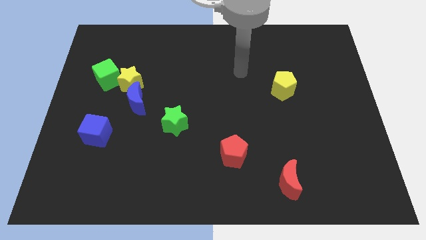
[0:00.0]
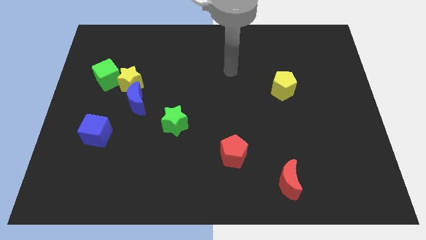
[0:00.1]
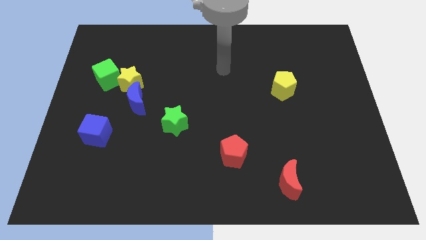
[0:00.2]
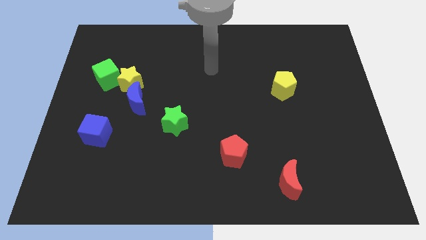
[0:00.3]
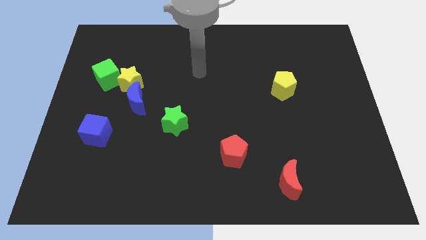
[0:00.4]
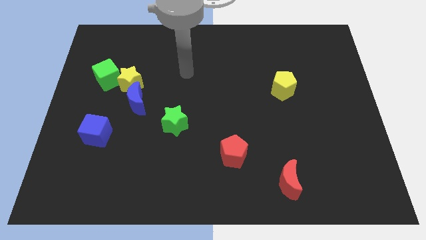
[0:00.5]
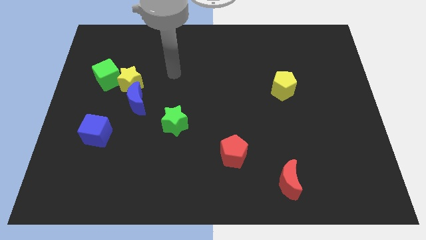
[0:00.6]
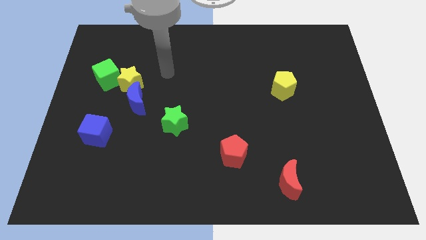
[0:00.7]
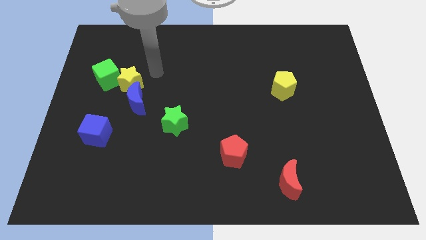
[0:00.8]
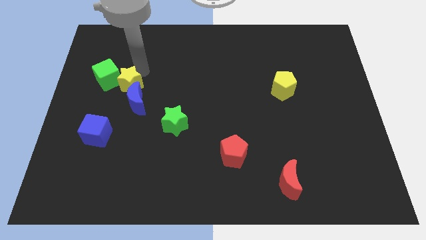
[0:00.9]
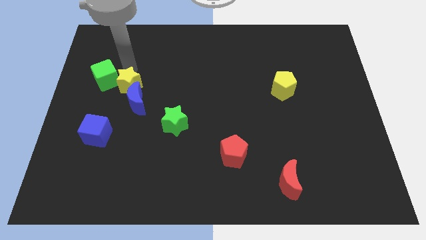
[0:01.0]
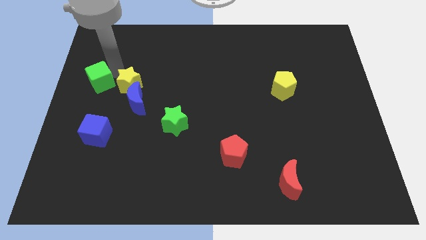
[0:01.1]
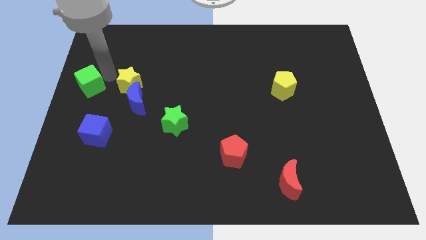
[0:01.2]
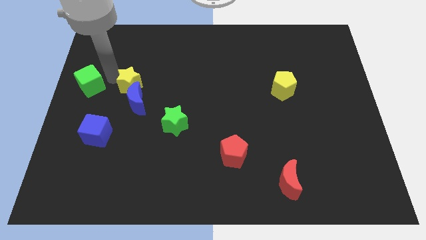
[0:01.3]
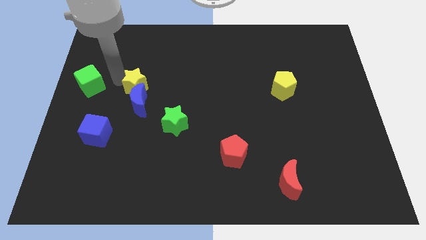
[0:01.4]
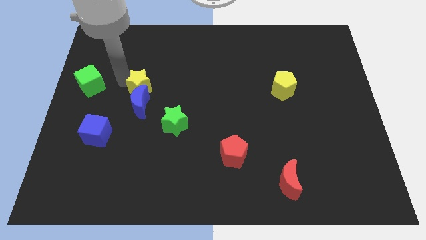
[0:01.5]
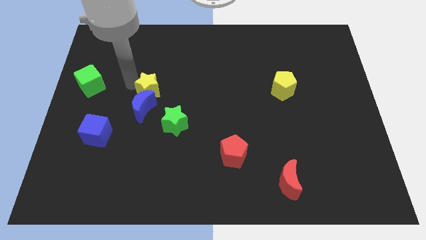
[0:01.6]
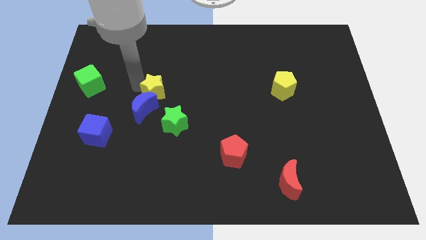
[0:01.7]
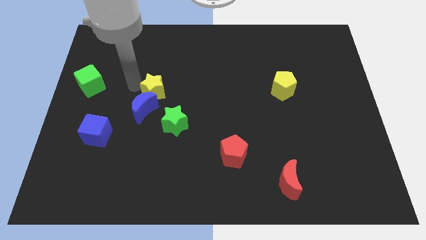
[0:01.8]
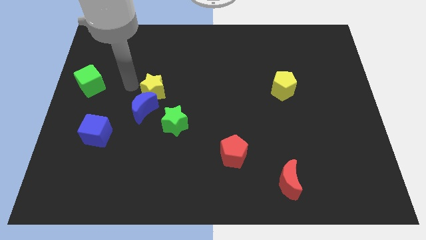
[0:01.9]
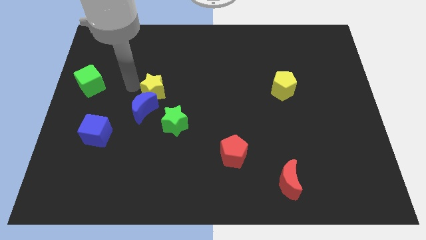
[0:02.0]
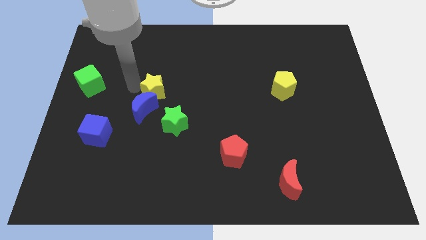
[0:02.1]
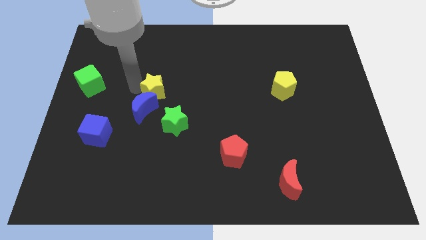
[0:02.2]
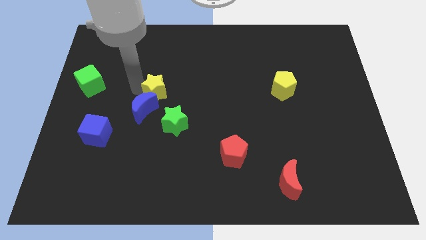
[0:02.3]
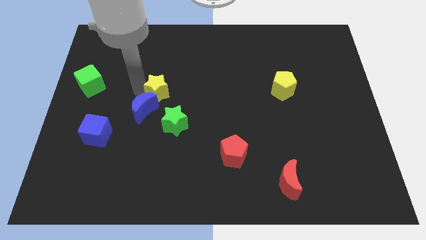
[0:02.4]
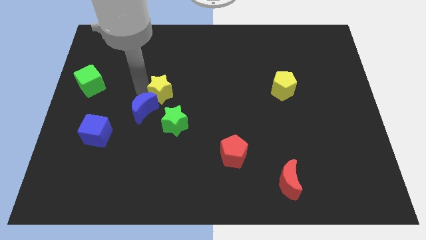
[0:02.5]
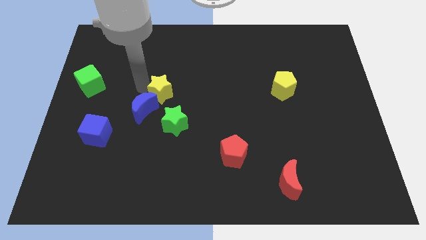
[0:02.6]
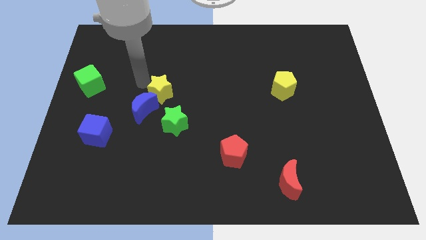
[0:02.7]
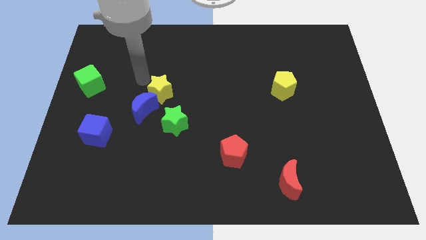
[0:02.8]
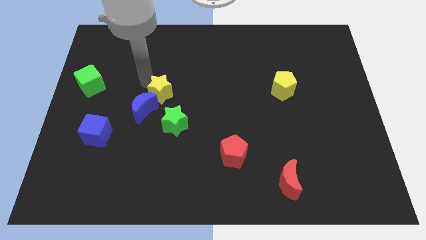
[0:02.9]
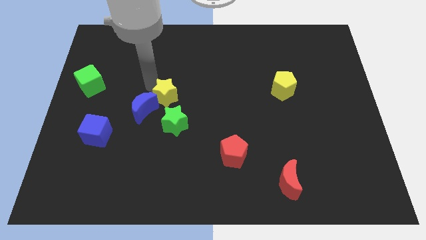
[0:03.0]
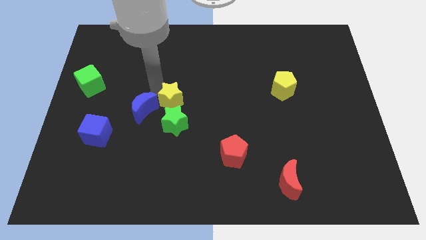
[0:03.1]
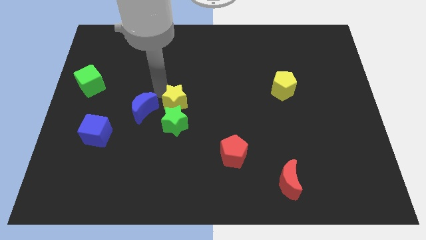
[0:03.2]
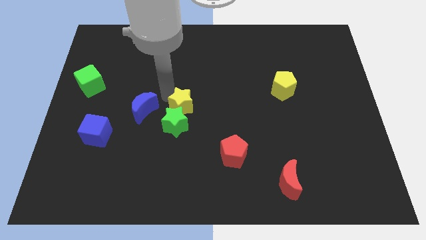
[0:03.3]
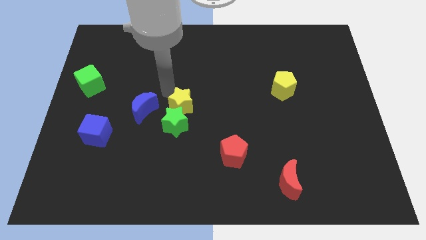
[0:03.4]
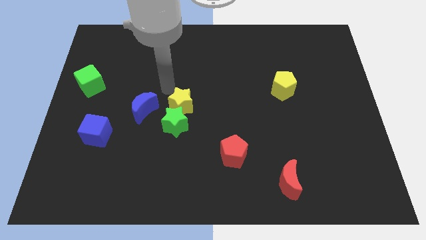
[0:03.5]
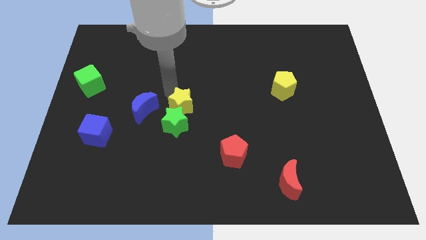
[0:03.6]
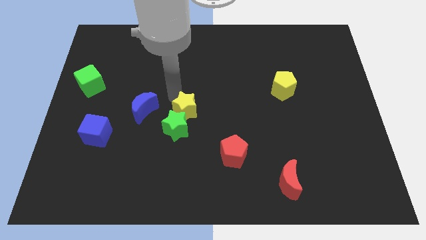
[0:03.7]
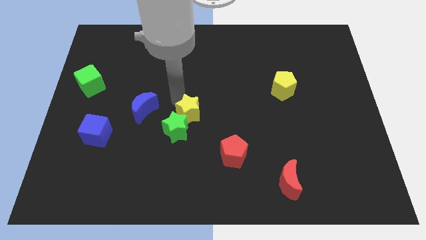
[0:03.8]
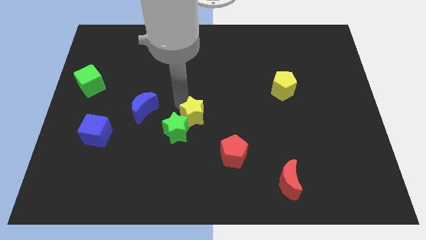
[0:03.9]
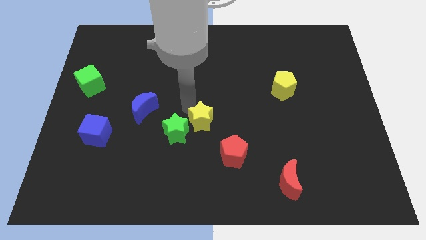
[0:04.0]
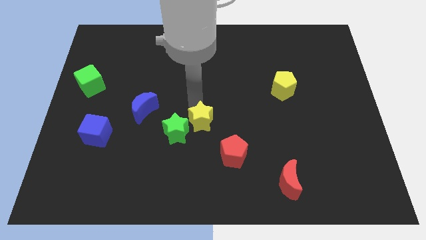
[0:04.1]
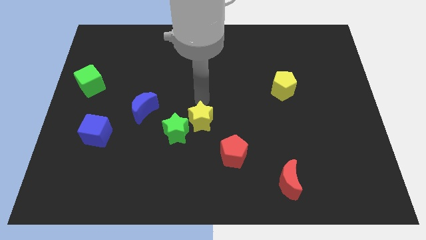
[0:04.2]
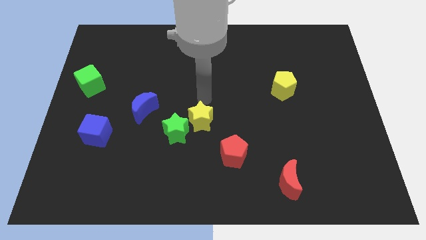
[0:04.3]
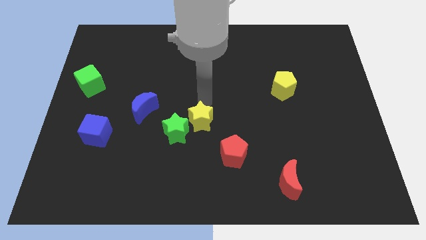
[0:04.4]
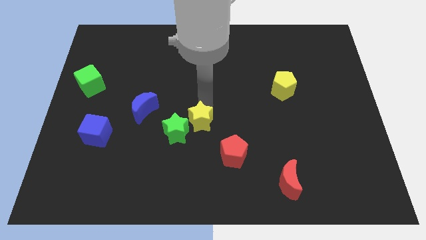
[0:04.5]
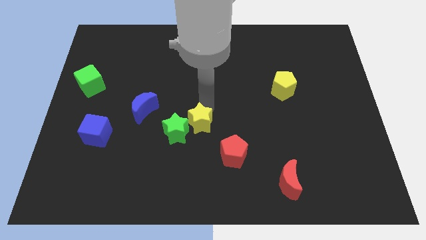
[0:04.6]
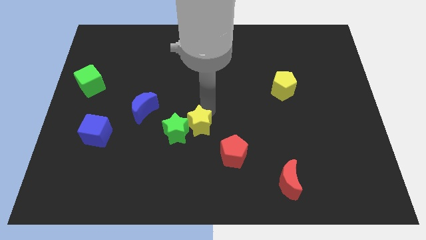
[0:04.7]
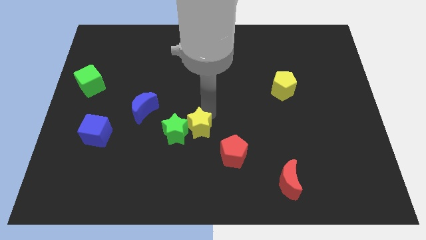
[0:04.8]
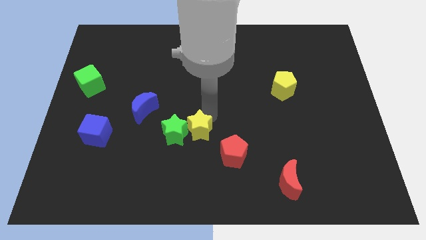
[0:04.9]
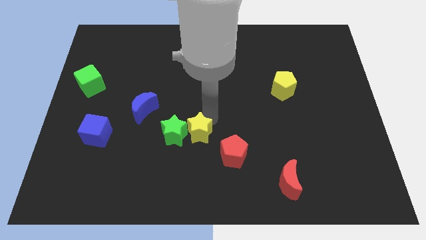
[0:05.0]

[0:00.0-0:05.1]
slide the yellow star diagonally down and to the right of the green star

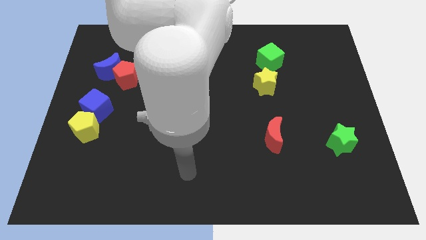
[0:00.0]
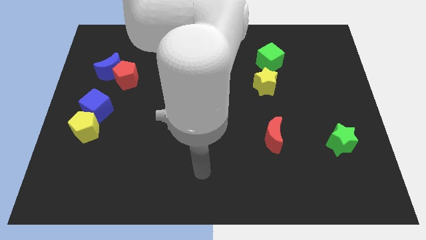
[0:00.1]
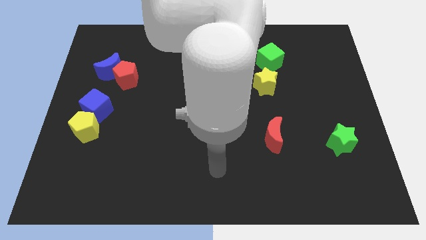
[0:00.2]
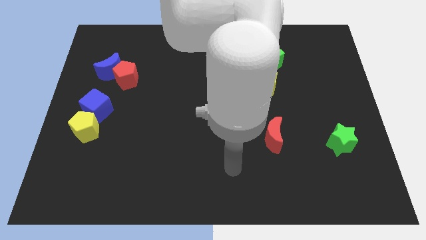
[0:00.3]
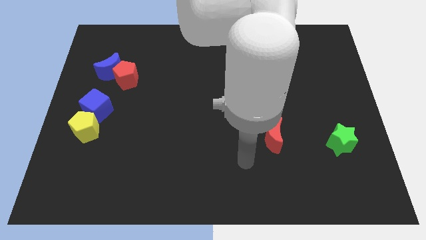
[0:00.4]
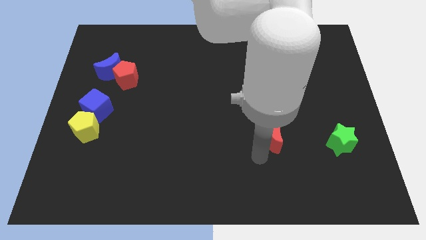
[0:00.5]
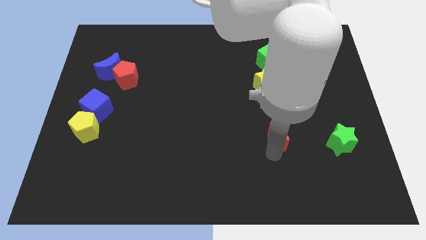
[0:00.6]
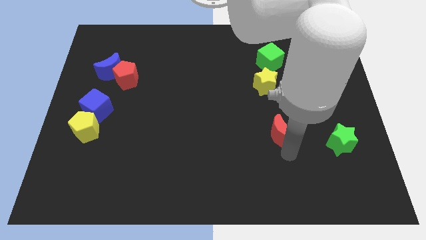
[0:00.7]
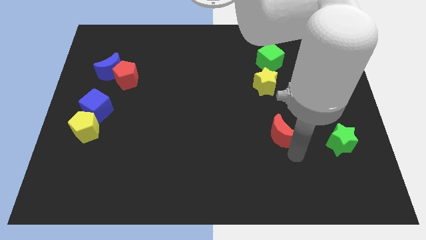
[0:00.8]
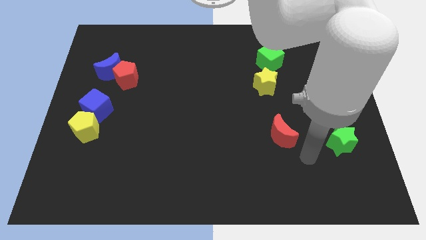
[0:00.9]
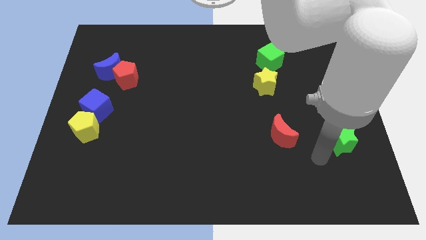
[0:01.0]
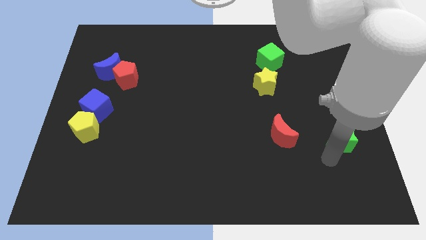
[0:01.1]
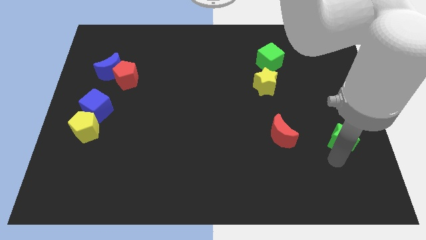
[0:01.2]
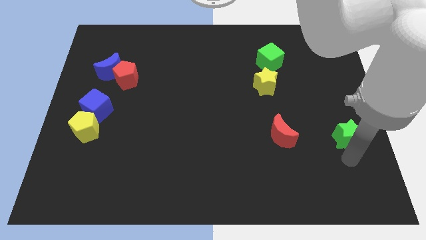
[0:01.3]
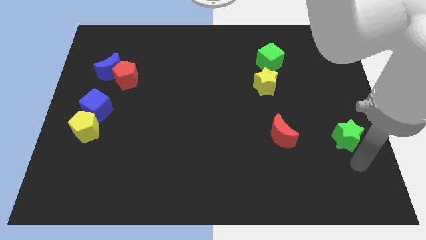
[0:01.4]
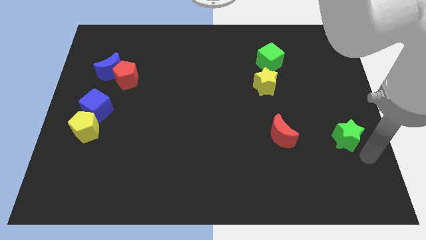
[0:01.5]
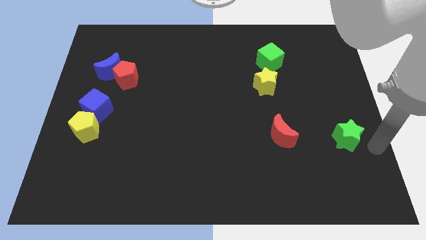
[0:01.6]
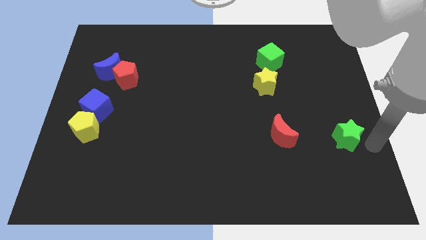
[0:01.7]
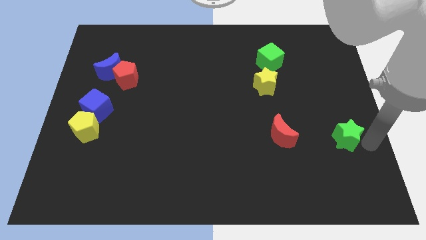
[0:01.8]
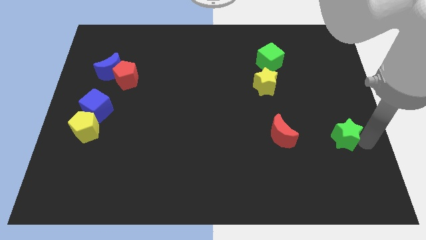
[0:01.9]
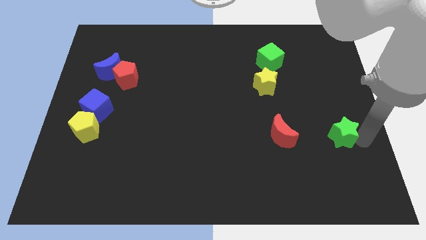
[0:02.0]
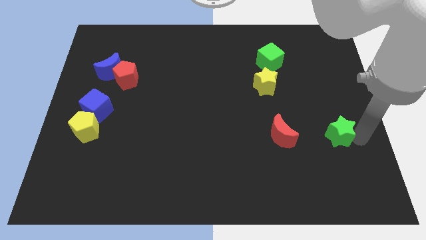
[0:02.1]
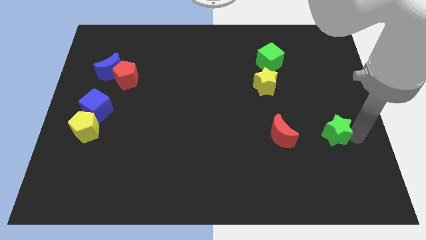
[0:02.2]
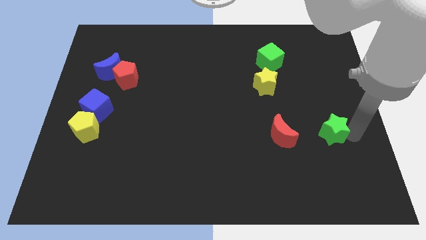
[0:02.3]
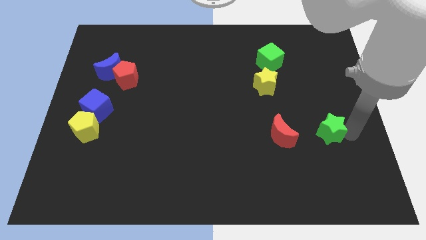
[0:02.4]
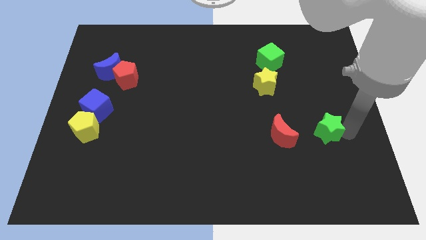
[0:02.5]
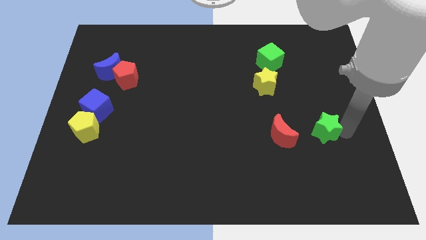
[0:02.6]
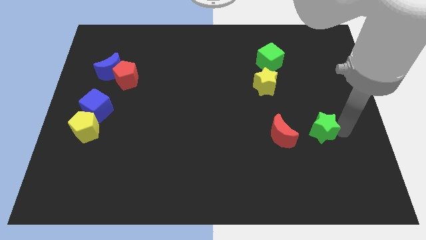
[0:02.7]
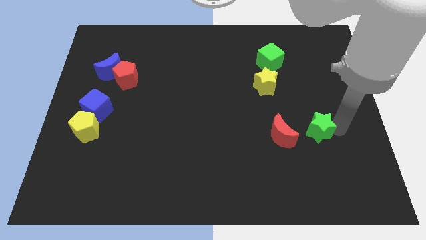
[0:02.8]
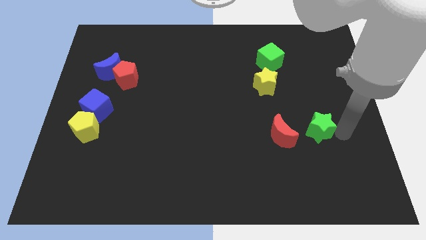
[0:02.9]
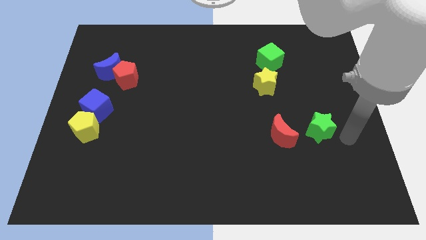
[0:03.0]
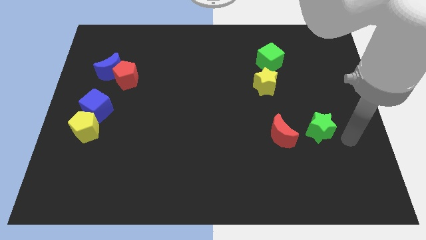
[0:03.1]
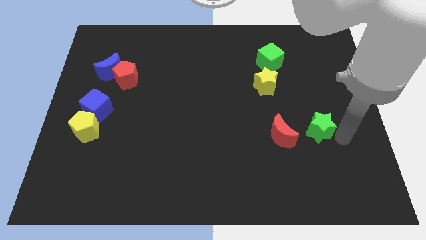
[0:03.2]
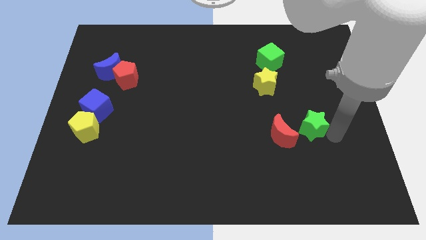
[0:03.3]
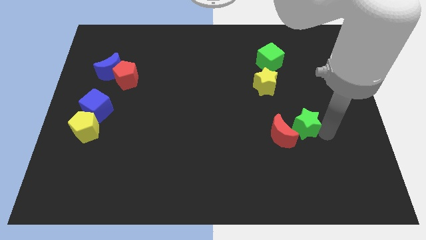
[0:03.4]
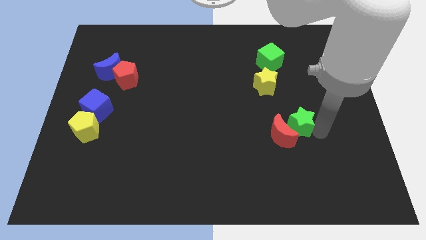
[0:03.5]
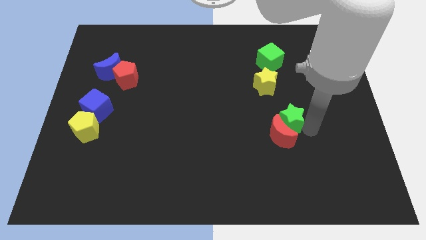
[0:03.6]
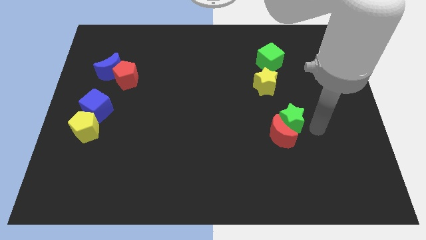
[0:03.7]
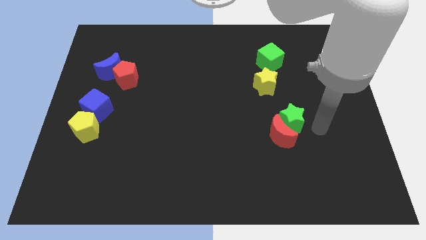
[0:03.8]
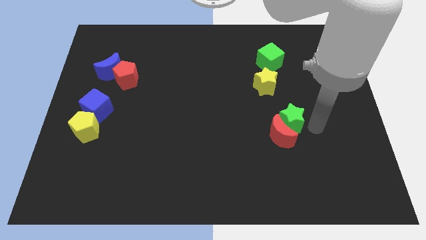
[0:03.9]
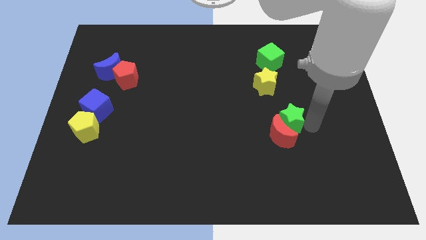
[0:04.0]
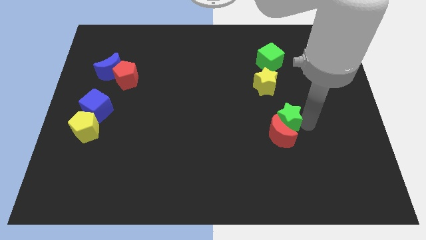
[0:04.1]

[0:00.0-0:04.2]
slide the green star to the top left of the red moon
